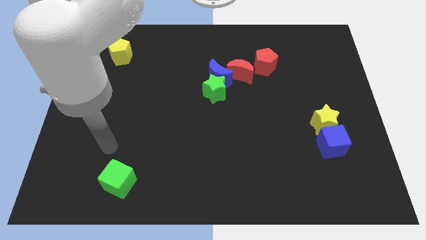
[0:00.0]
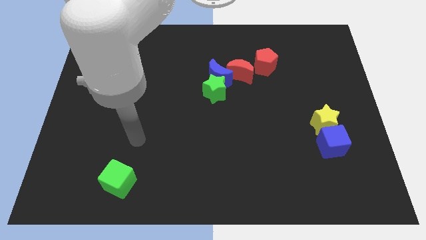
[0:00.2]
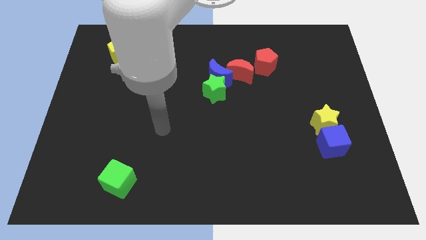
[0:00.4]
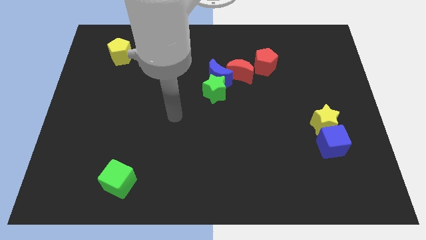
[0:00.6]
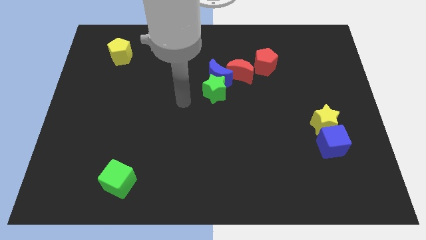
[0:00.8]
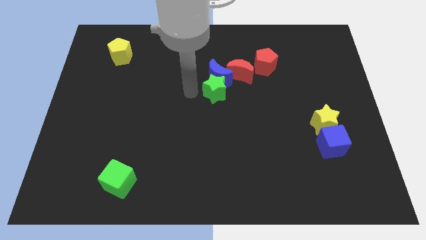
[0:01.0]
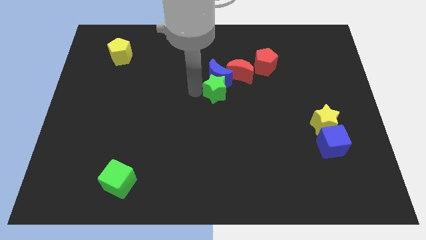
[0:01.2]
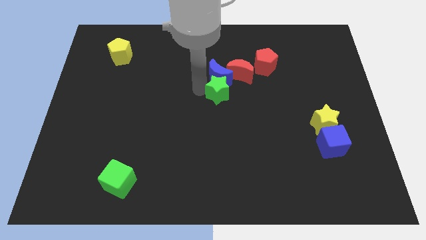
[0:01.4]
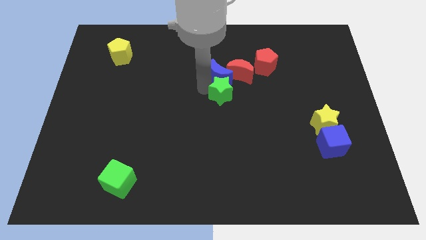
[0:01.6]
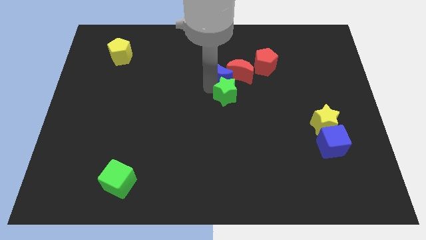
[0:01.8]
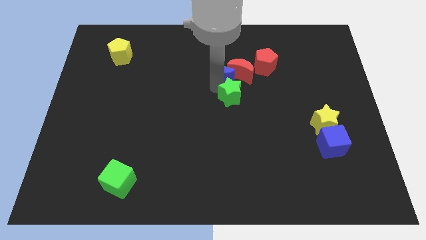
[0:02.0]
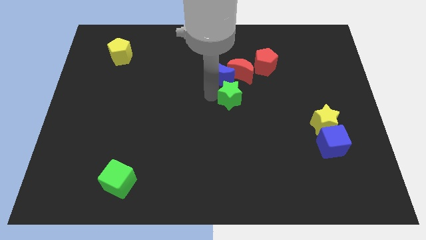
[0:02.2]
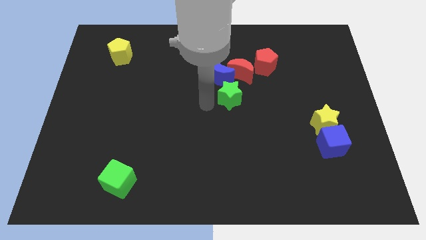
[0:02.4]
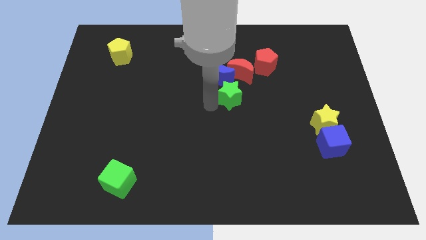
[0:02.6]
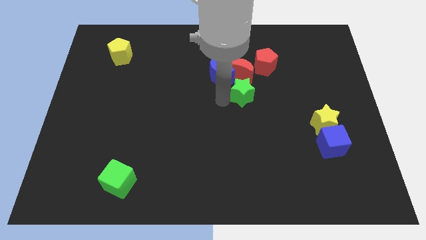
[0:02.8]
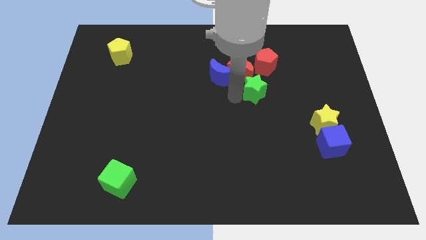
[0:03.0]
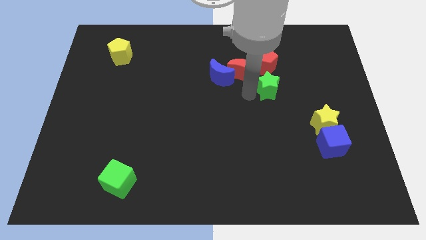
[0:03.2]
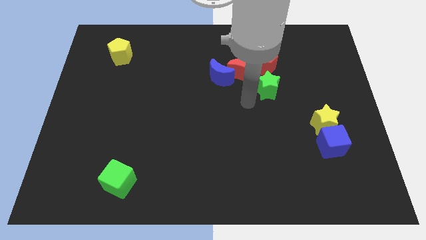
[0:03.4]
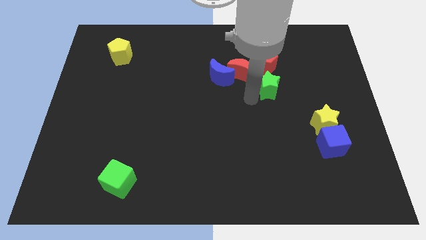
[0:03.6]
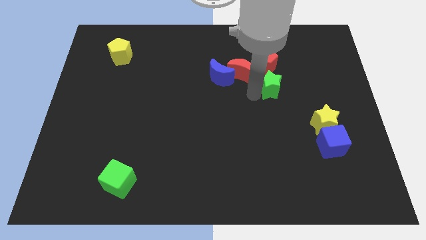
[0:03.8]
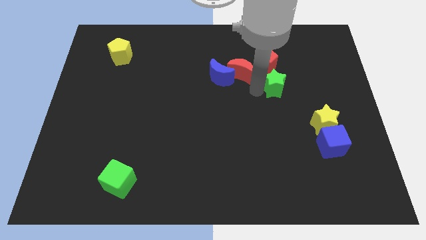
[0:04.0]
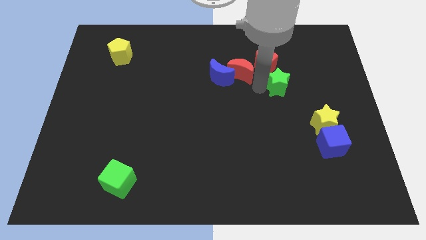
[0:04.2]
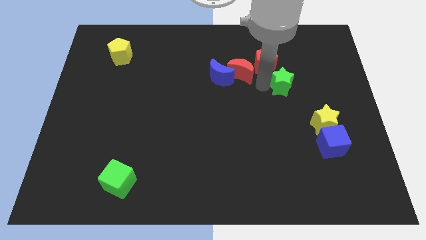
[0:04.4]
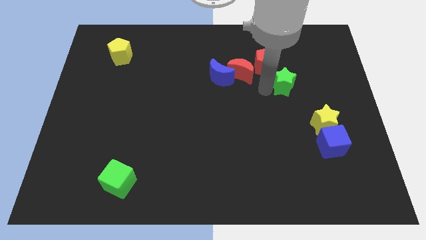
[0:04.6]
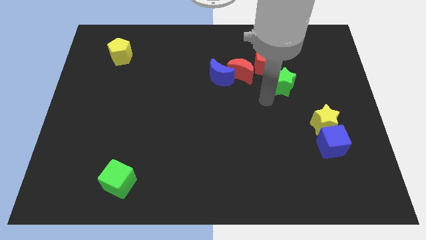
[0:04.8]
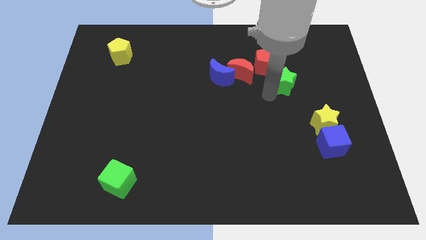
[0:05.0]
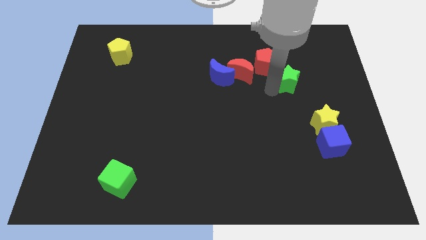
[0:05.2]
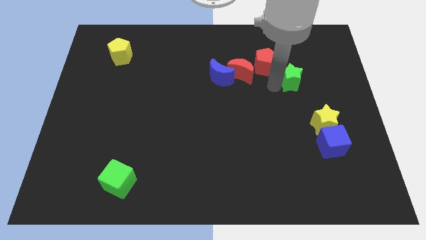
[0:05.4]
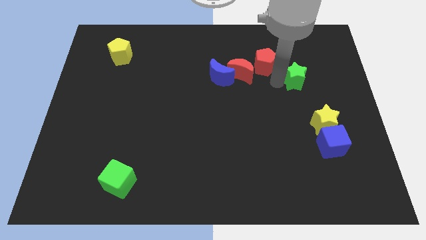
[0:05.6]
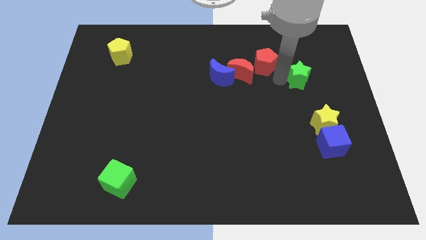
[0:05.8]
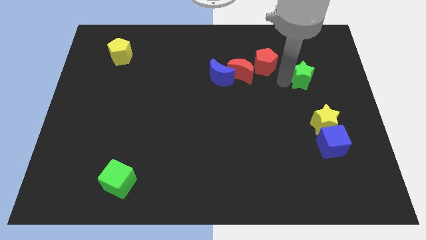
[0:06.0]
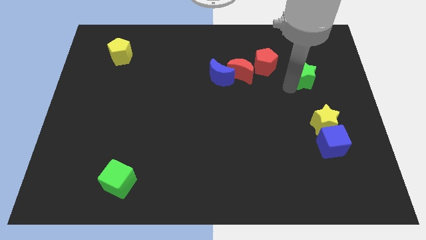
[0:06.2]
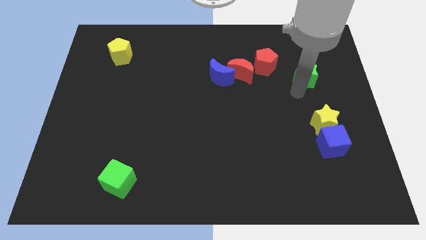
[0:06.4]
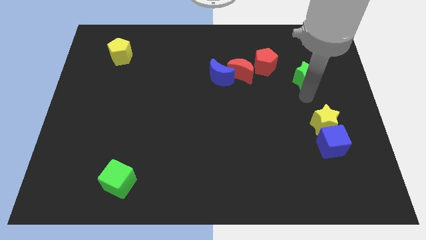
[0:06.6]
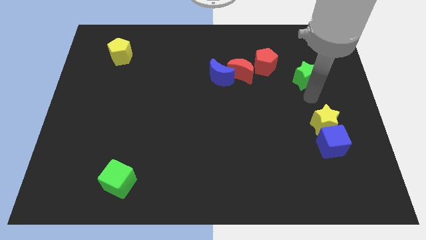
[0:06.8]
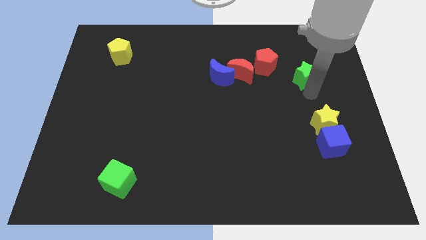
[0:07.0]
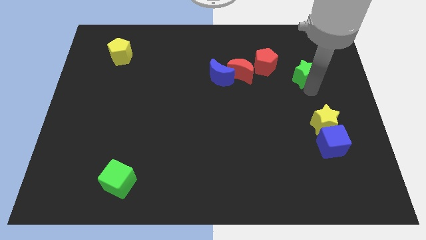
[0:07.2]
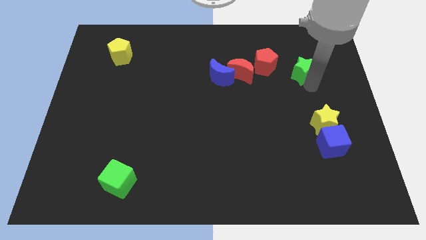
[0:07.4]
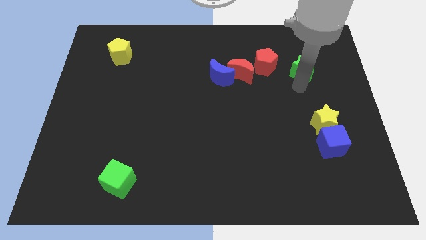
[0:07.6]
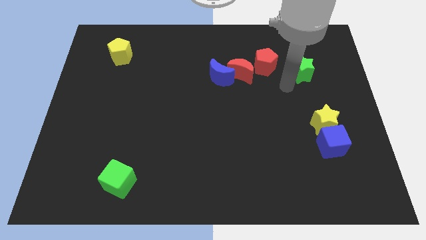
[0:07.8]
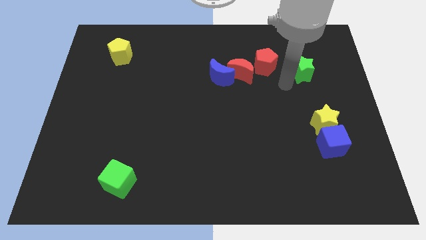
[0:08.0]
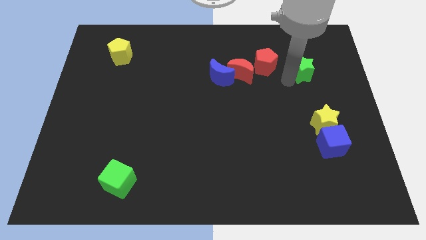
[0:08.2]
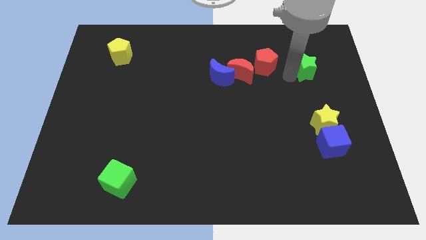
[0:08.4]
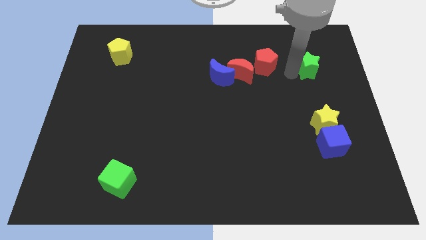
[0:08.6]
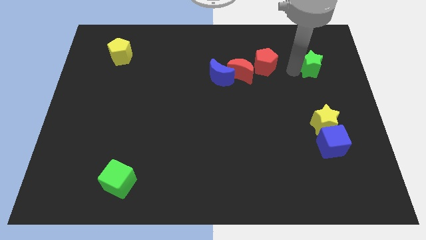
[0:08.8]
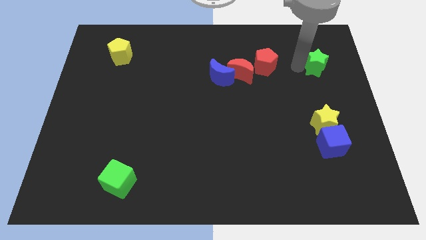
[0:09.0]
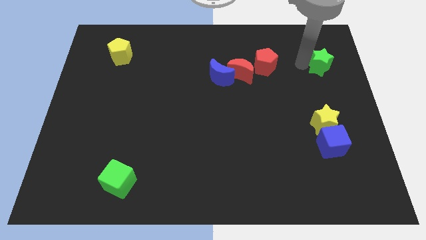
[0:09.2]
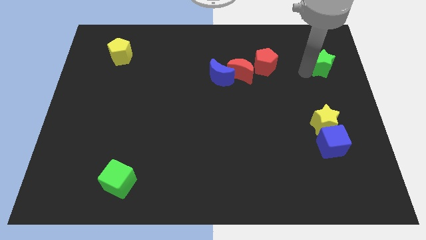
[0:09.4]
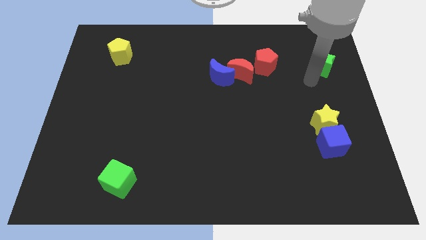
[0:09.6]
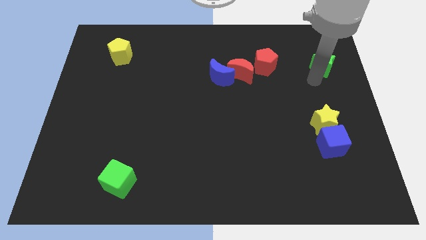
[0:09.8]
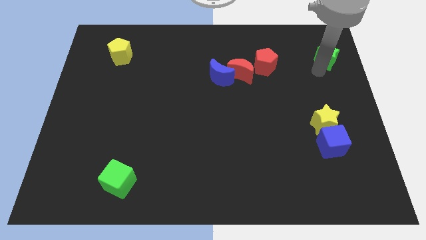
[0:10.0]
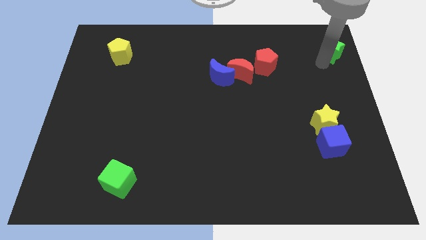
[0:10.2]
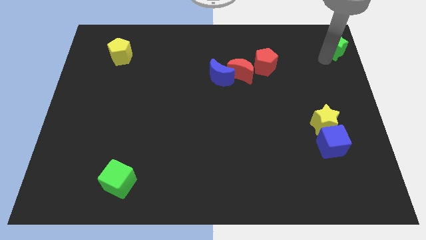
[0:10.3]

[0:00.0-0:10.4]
move the green star to the top right

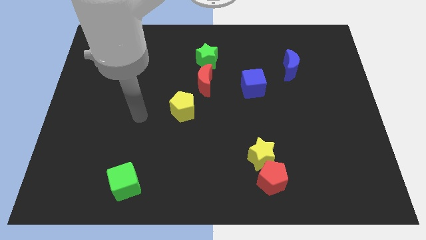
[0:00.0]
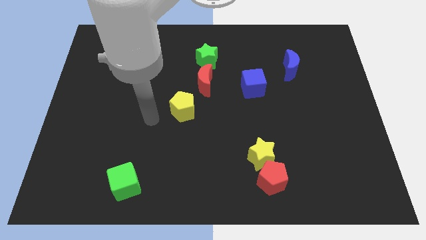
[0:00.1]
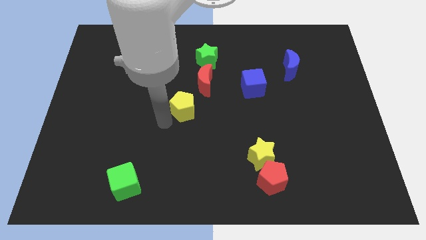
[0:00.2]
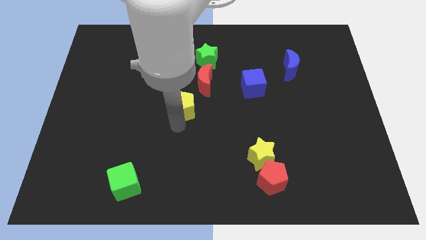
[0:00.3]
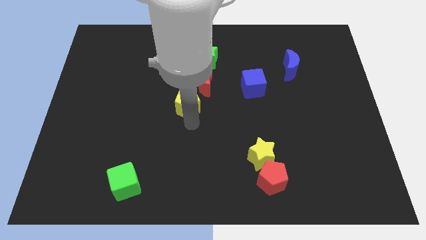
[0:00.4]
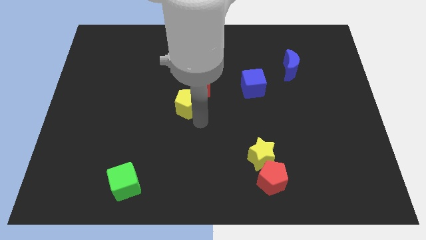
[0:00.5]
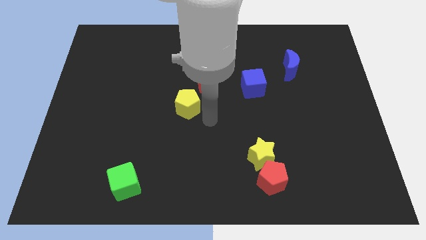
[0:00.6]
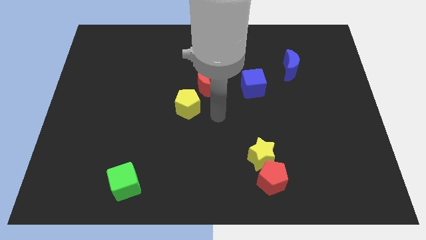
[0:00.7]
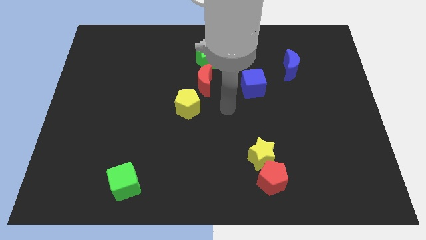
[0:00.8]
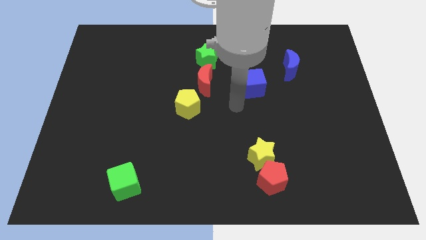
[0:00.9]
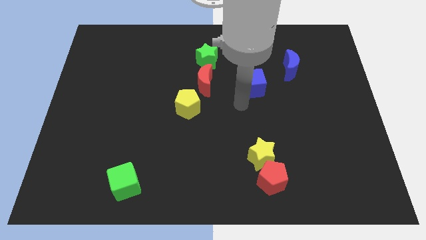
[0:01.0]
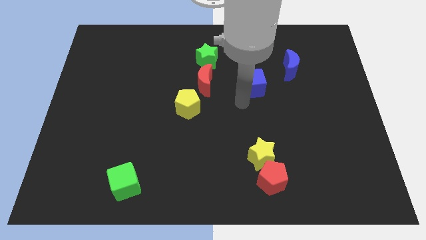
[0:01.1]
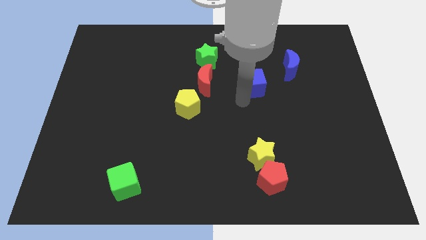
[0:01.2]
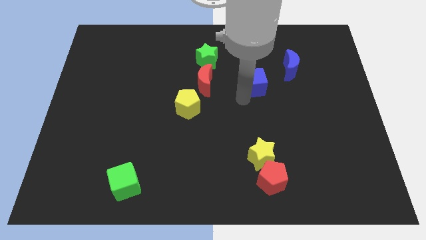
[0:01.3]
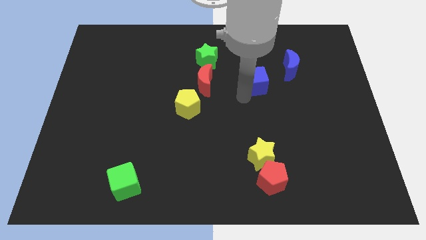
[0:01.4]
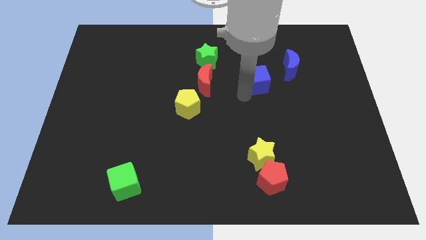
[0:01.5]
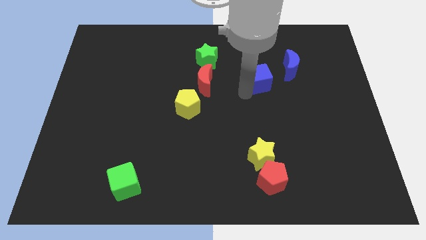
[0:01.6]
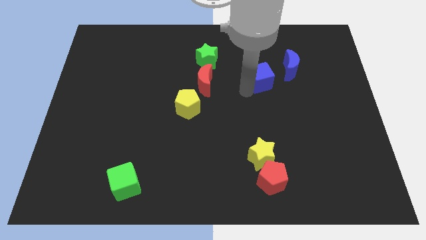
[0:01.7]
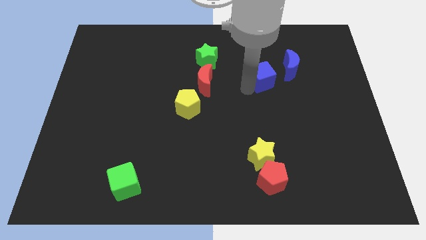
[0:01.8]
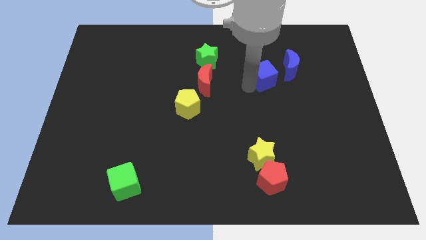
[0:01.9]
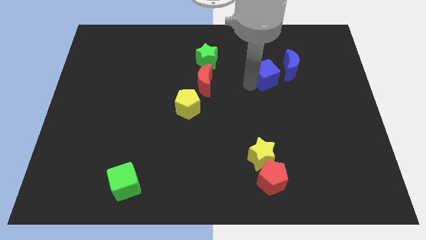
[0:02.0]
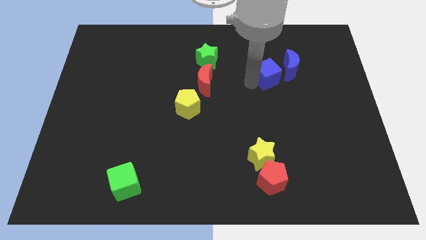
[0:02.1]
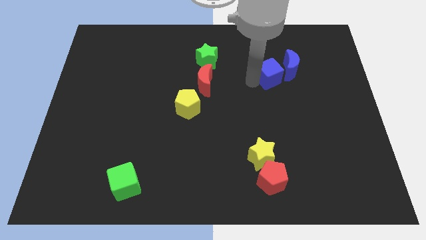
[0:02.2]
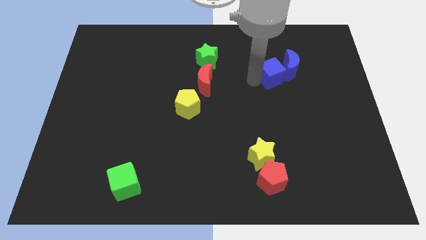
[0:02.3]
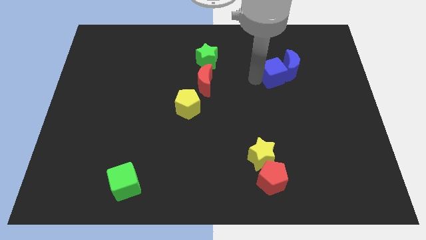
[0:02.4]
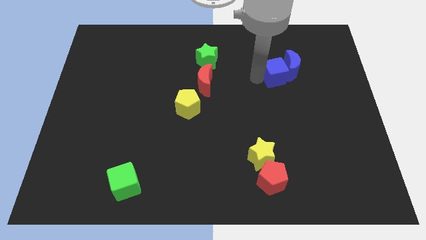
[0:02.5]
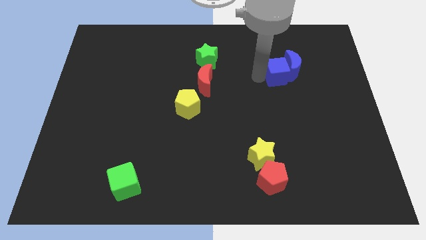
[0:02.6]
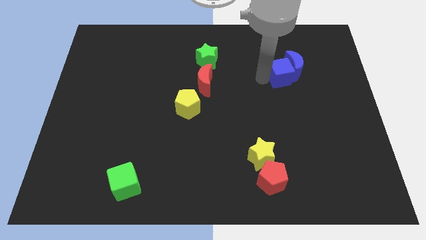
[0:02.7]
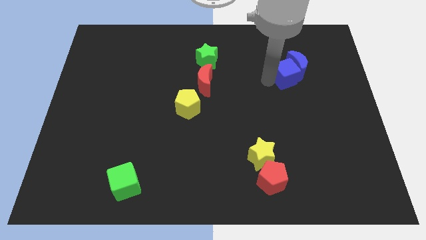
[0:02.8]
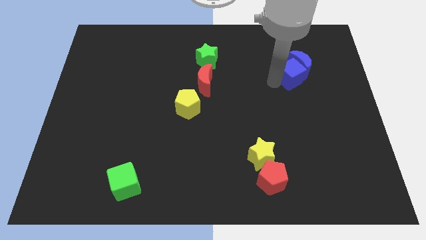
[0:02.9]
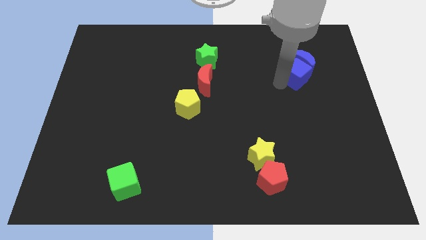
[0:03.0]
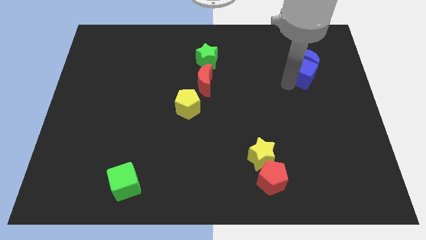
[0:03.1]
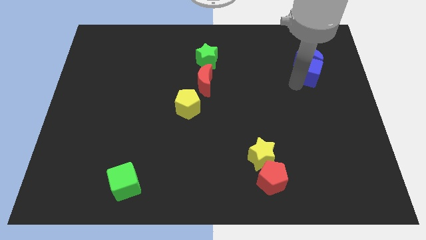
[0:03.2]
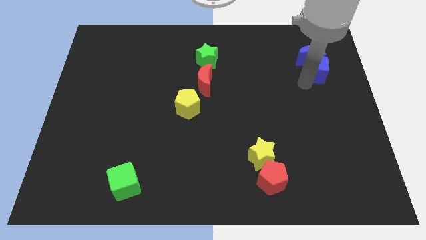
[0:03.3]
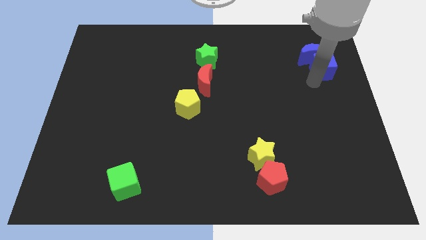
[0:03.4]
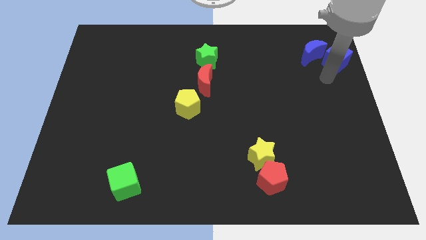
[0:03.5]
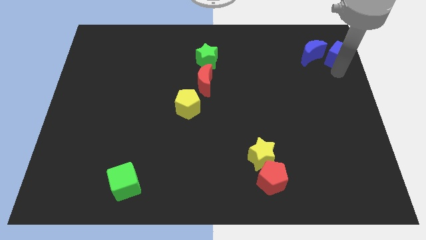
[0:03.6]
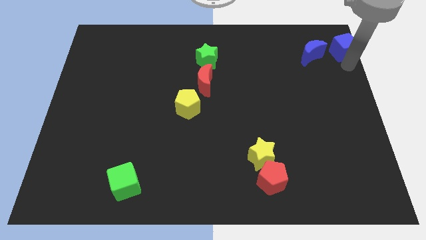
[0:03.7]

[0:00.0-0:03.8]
push the blue cube to the upper right corner
